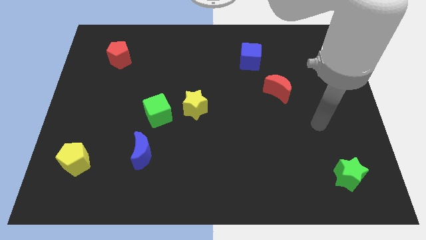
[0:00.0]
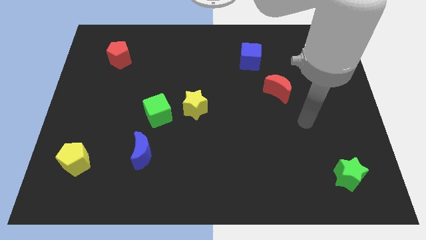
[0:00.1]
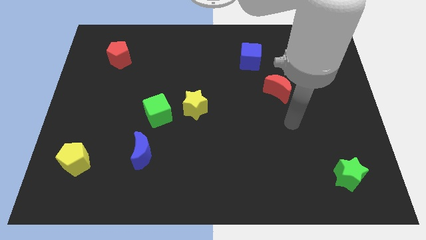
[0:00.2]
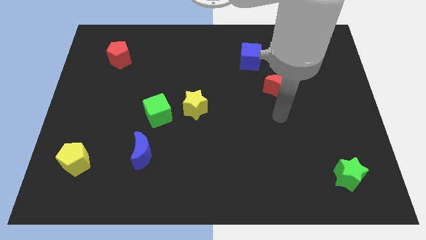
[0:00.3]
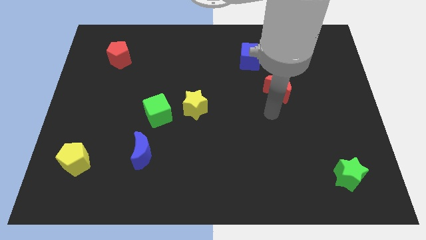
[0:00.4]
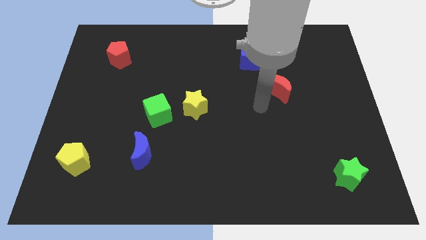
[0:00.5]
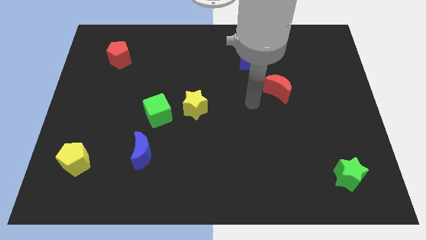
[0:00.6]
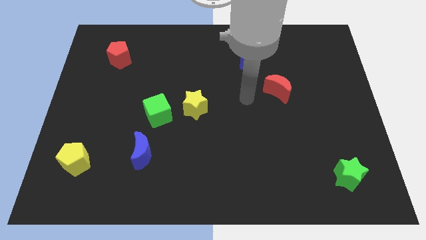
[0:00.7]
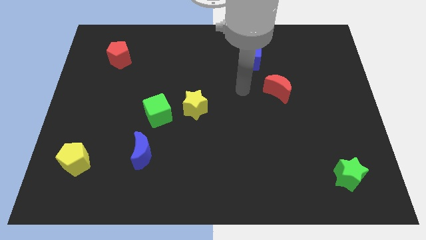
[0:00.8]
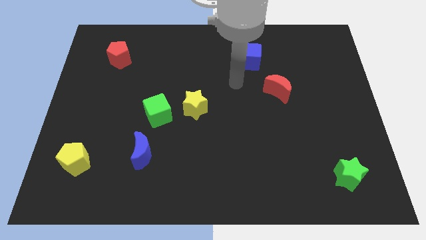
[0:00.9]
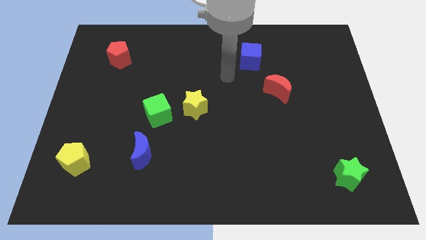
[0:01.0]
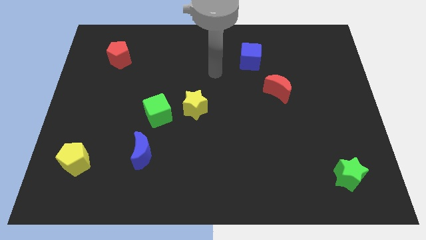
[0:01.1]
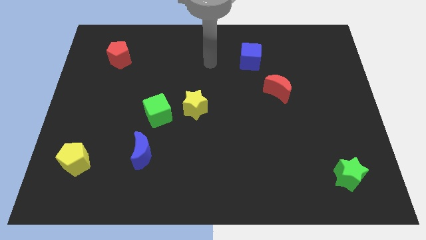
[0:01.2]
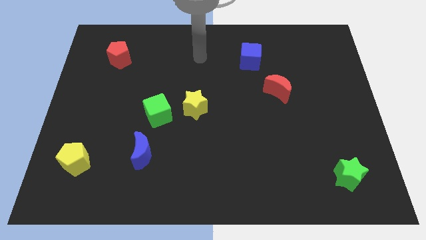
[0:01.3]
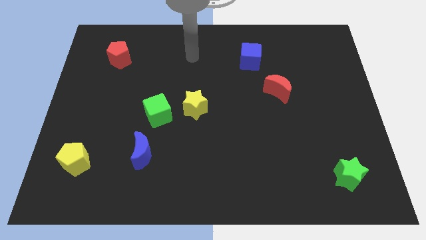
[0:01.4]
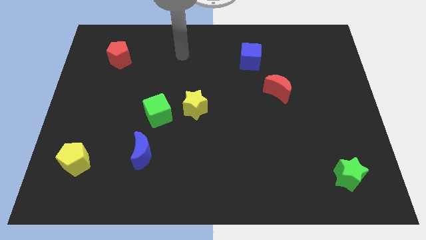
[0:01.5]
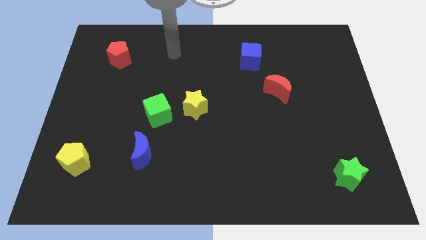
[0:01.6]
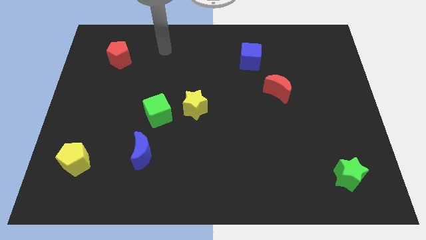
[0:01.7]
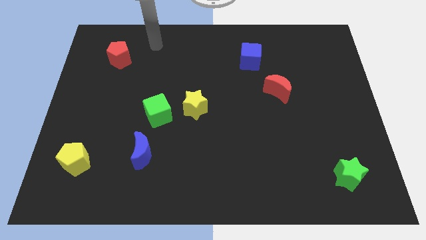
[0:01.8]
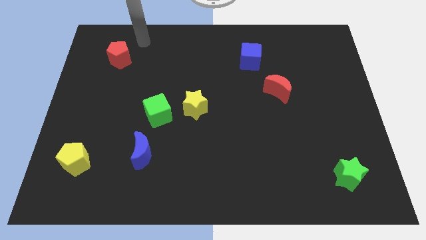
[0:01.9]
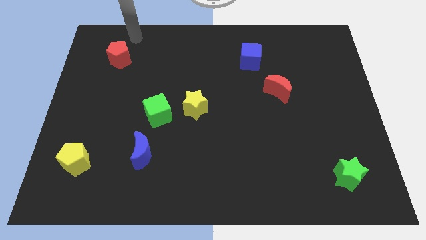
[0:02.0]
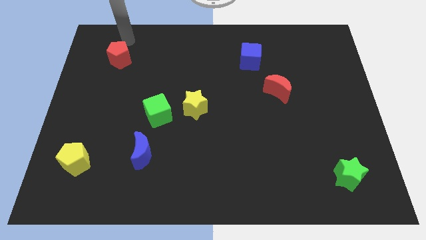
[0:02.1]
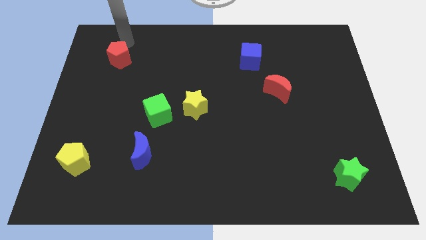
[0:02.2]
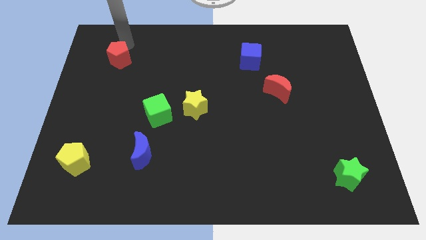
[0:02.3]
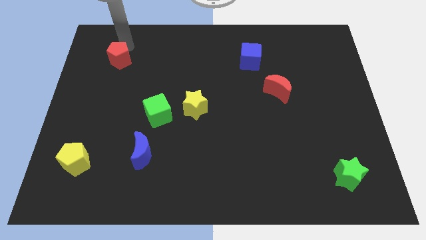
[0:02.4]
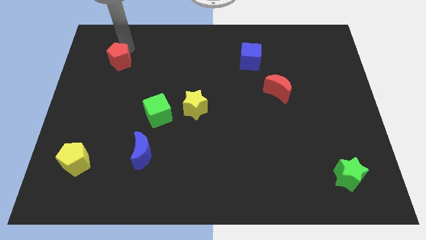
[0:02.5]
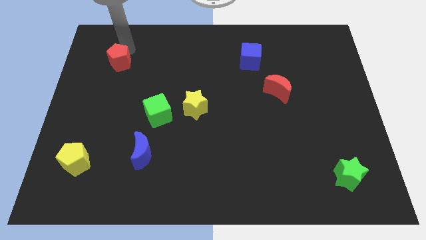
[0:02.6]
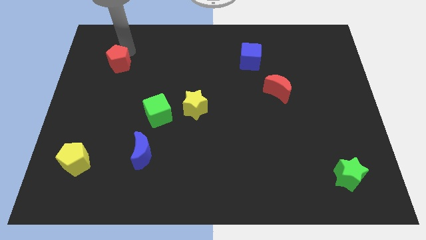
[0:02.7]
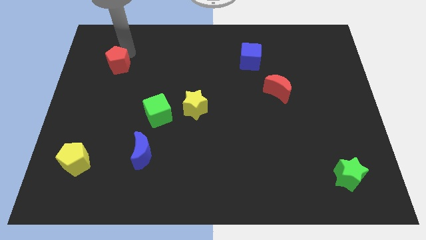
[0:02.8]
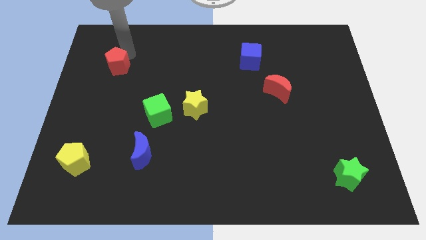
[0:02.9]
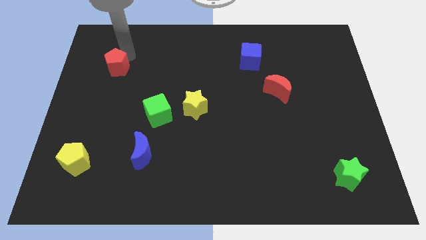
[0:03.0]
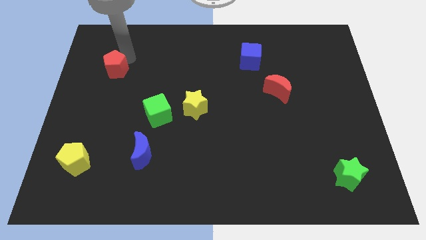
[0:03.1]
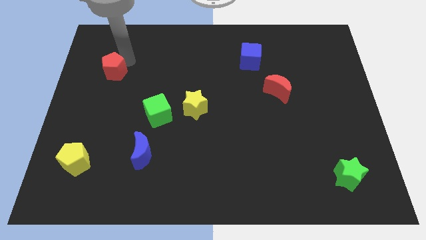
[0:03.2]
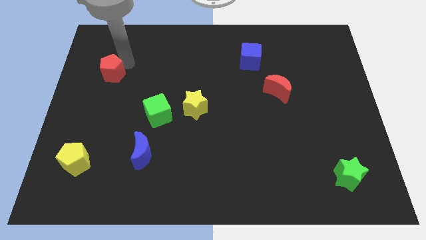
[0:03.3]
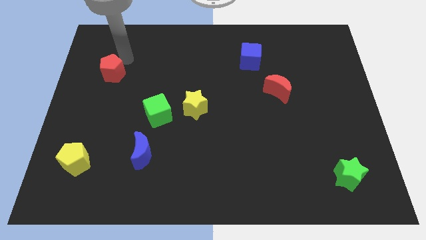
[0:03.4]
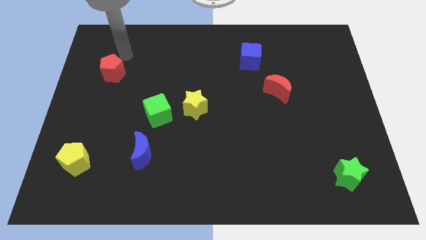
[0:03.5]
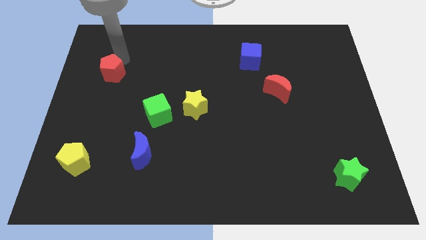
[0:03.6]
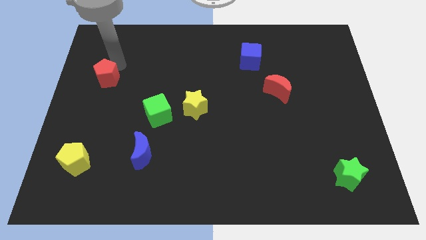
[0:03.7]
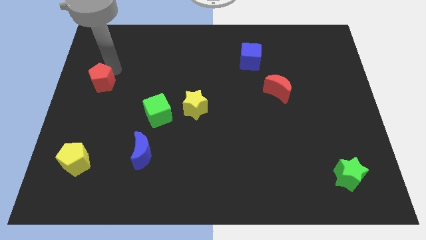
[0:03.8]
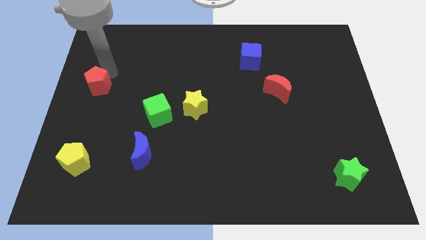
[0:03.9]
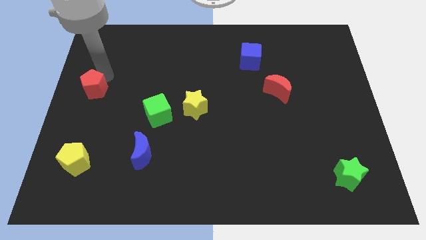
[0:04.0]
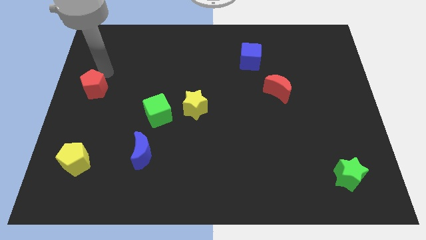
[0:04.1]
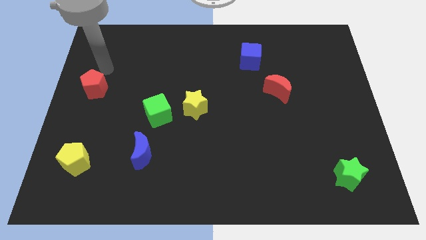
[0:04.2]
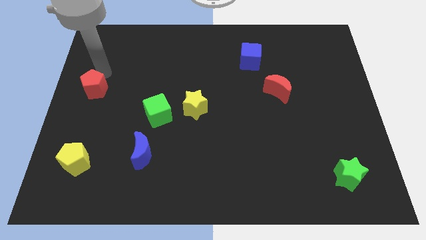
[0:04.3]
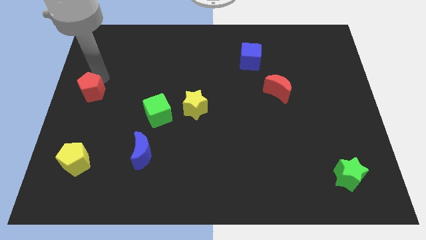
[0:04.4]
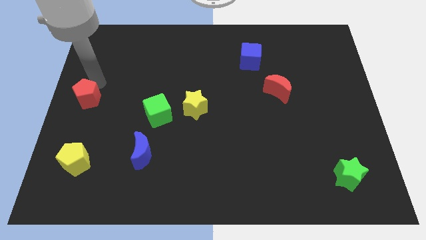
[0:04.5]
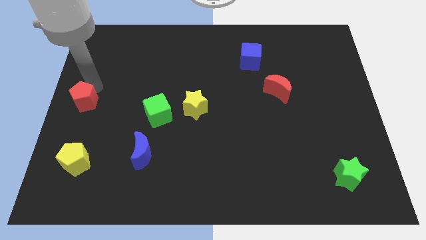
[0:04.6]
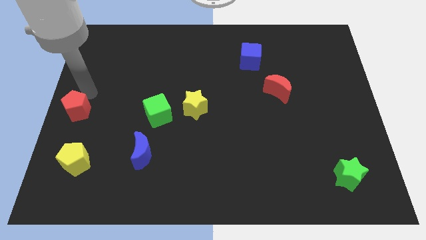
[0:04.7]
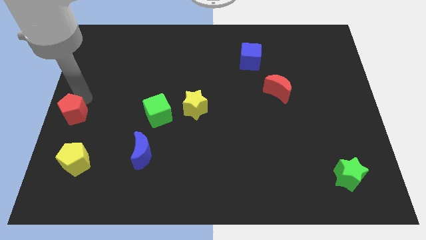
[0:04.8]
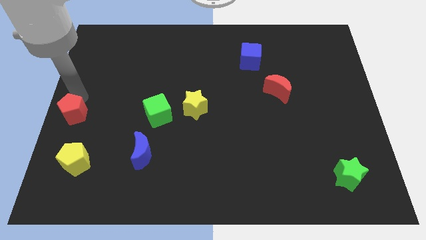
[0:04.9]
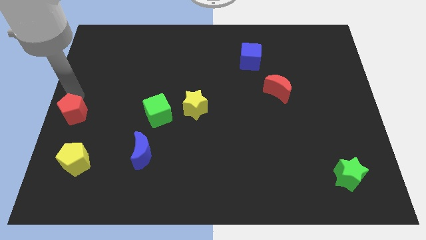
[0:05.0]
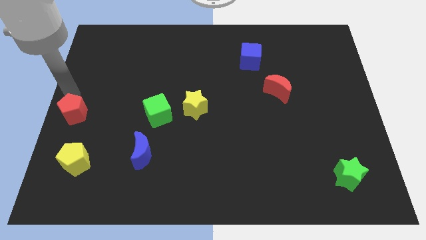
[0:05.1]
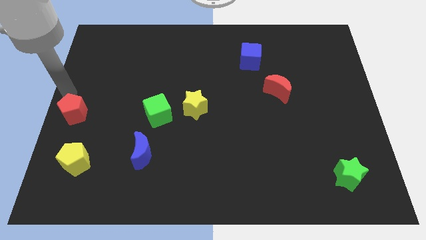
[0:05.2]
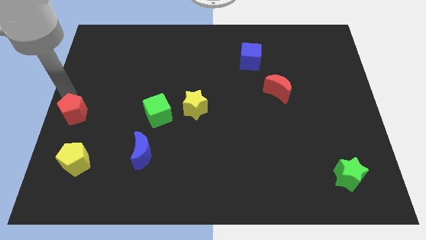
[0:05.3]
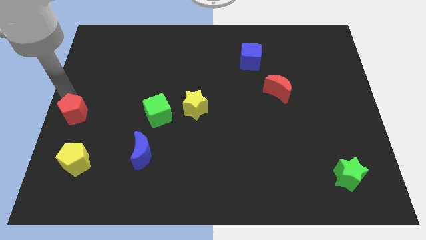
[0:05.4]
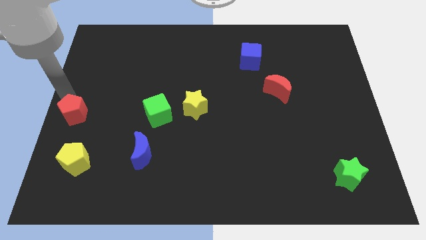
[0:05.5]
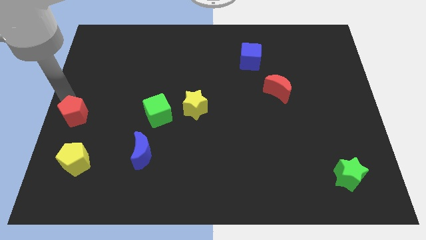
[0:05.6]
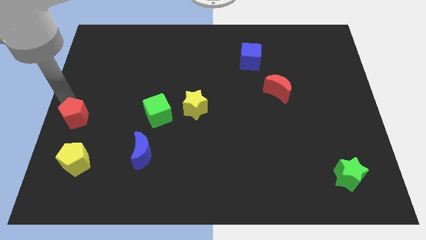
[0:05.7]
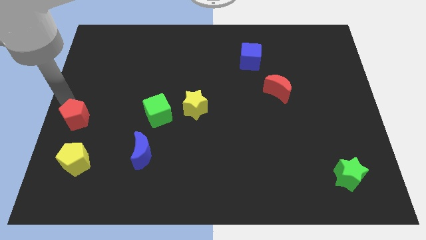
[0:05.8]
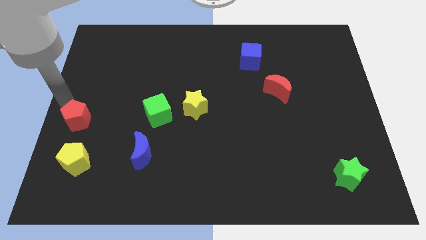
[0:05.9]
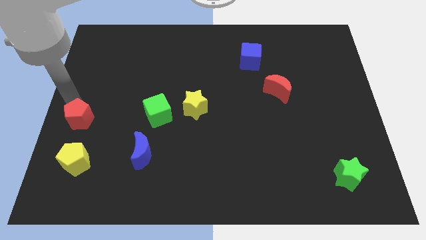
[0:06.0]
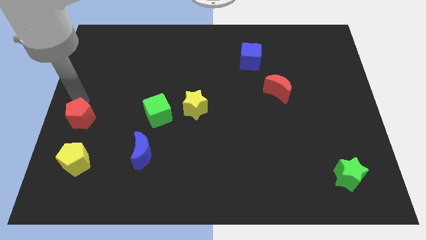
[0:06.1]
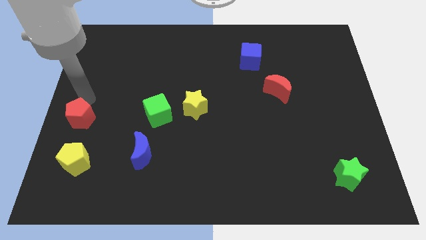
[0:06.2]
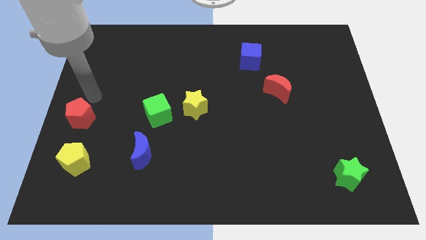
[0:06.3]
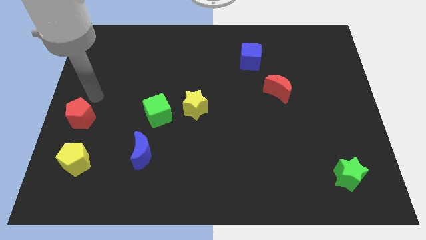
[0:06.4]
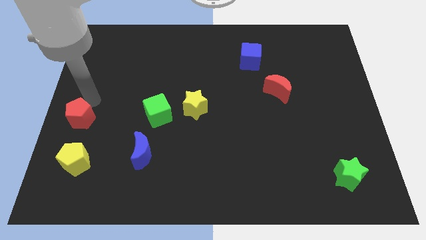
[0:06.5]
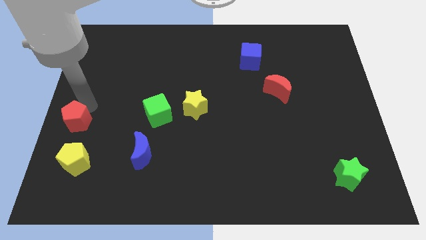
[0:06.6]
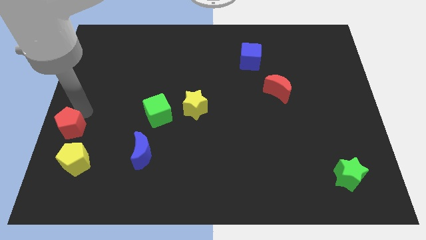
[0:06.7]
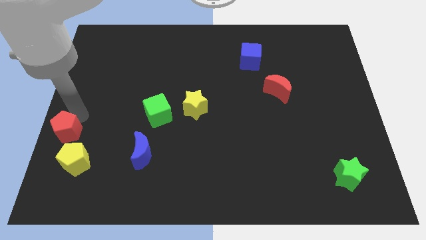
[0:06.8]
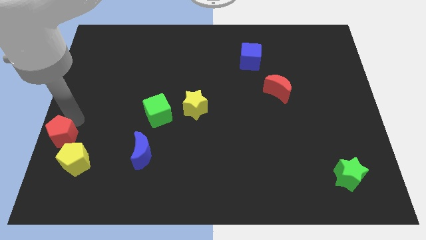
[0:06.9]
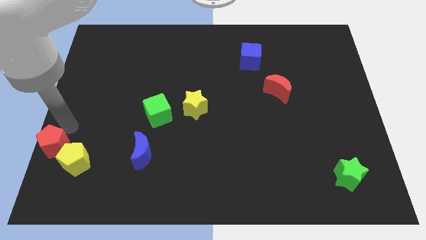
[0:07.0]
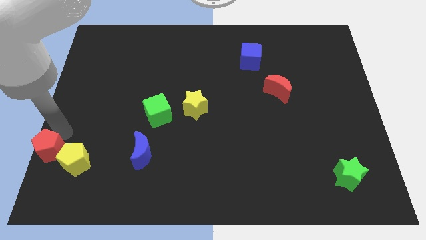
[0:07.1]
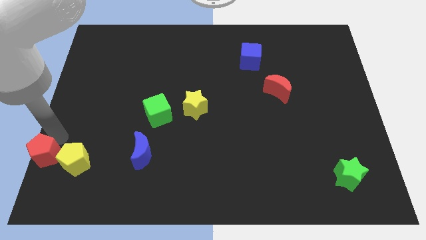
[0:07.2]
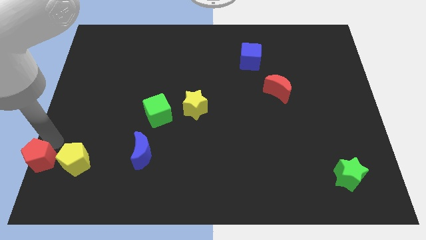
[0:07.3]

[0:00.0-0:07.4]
slide the red pentagon to the lower left corner
